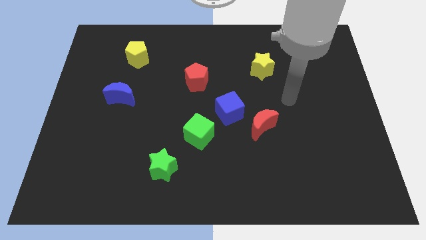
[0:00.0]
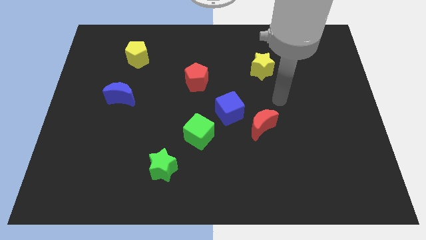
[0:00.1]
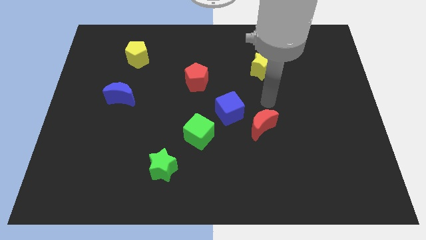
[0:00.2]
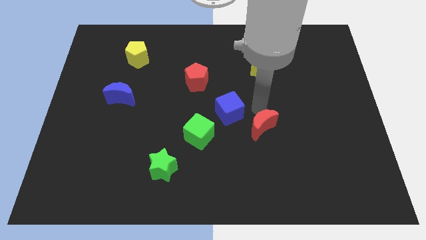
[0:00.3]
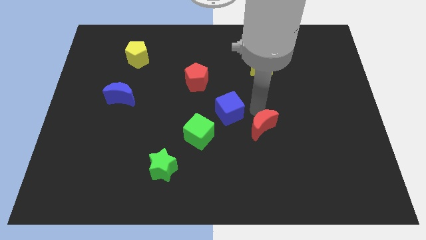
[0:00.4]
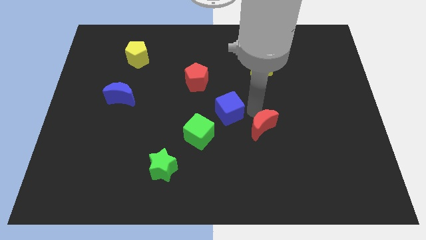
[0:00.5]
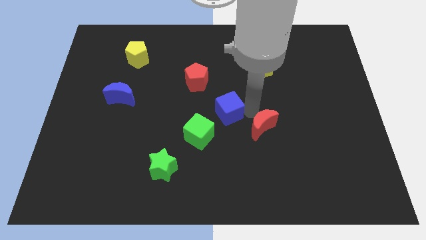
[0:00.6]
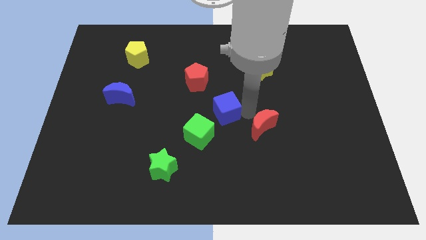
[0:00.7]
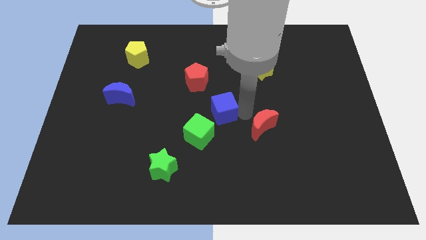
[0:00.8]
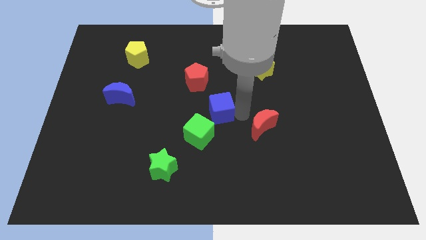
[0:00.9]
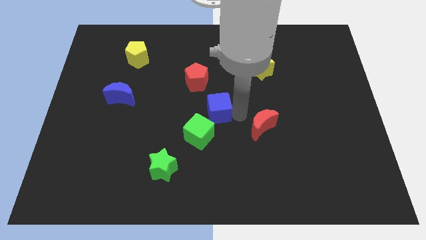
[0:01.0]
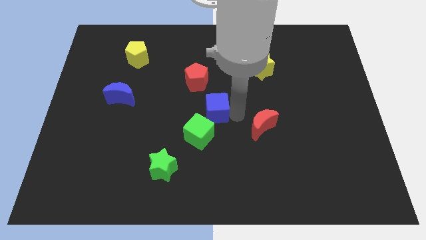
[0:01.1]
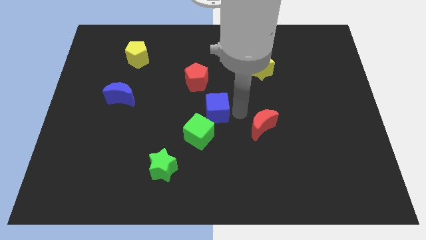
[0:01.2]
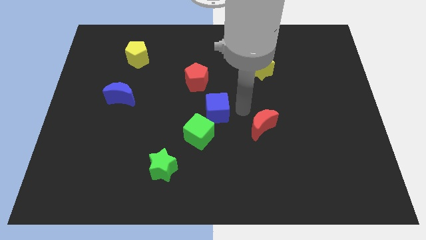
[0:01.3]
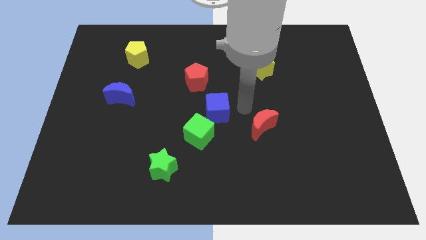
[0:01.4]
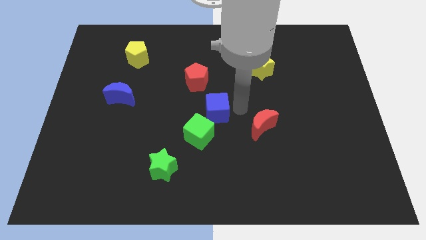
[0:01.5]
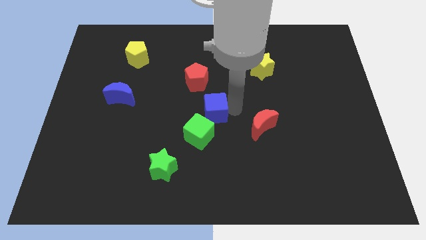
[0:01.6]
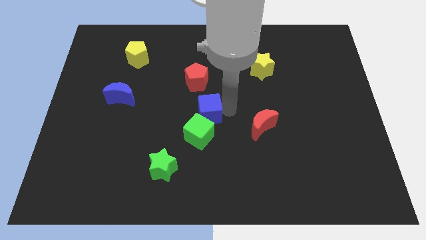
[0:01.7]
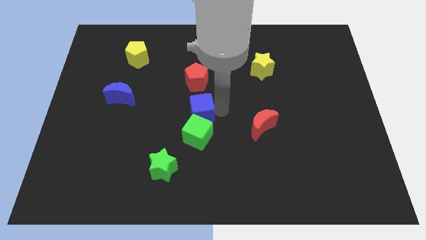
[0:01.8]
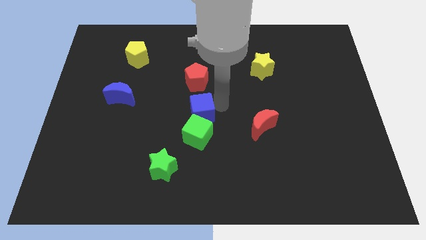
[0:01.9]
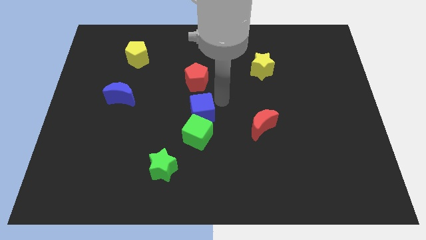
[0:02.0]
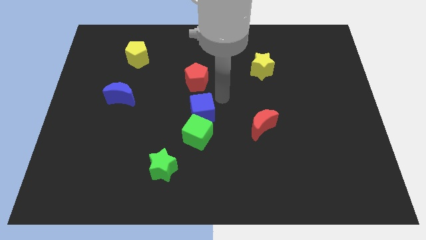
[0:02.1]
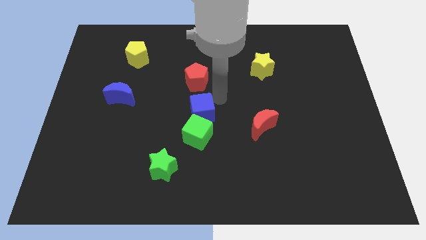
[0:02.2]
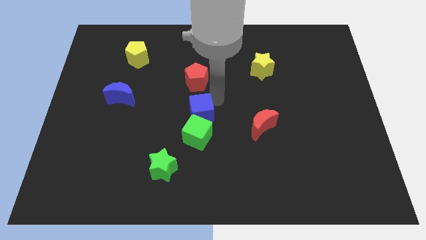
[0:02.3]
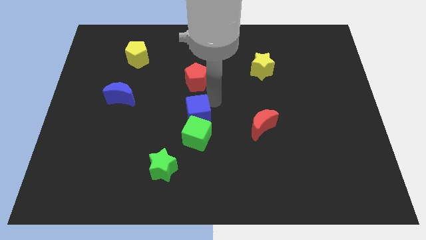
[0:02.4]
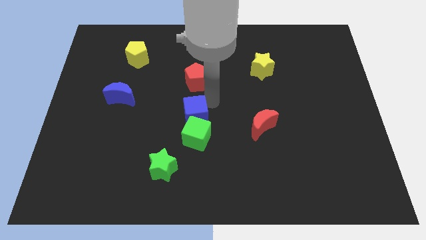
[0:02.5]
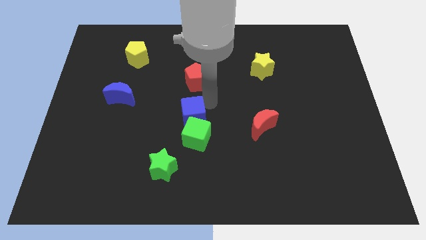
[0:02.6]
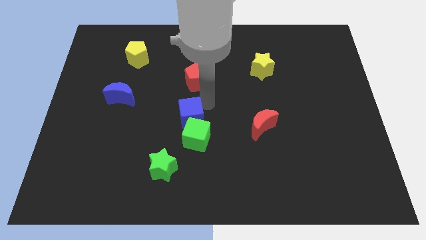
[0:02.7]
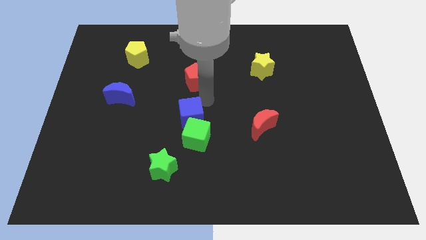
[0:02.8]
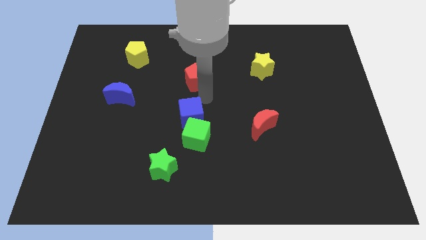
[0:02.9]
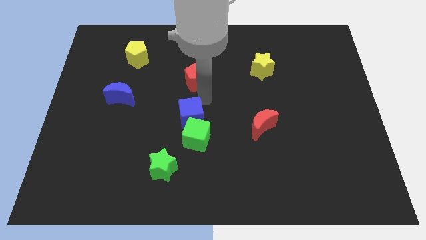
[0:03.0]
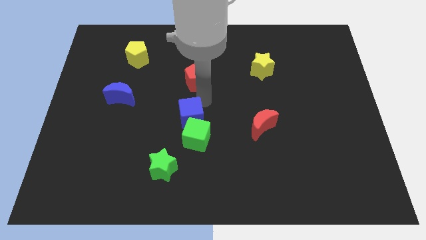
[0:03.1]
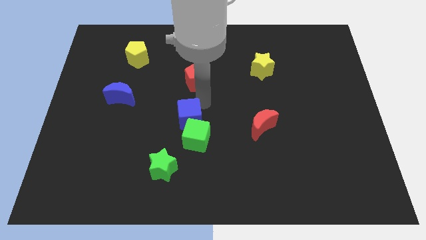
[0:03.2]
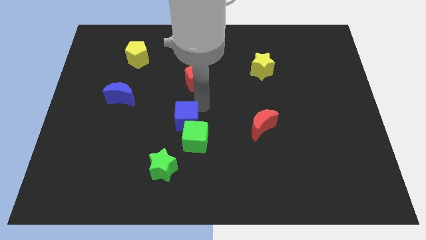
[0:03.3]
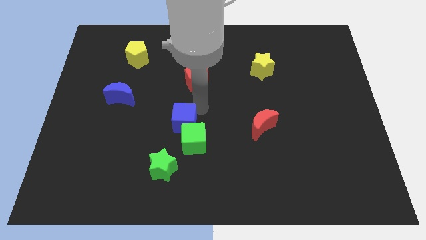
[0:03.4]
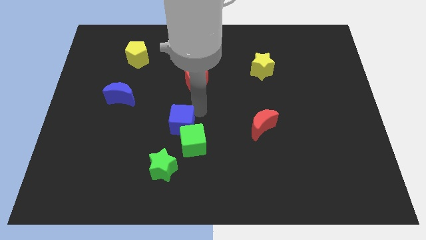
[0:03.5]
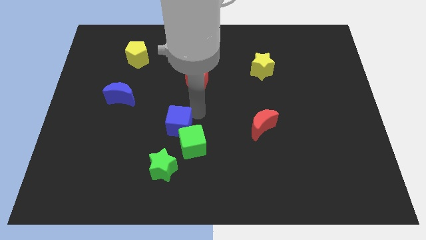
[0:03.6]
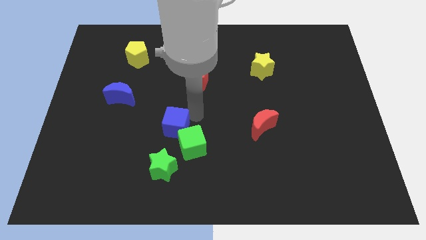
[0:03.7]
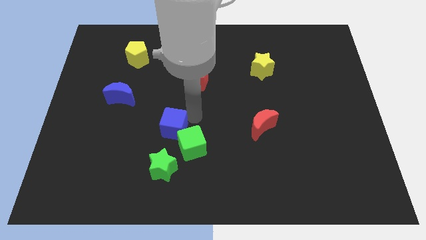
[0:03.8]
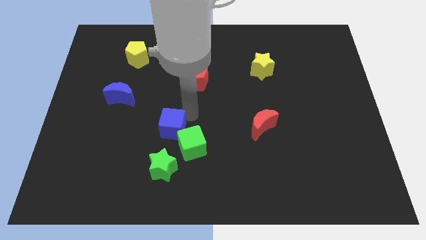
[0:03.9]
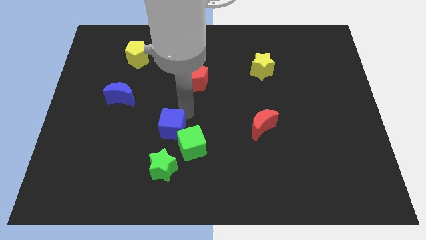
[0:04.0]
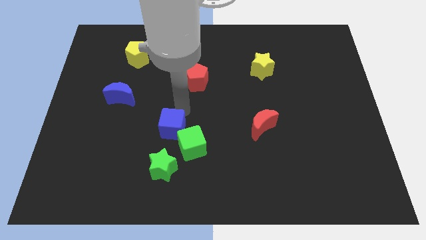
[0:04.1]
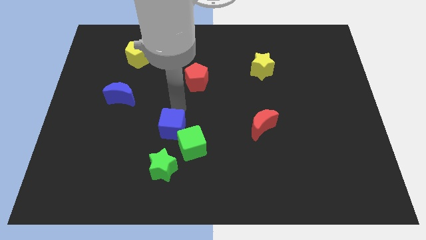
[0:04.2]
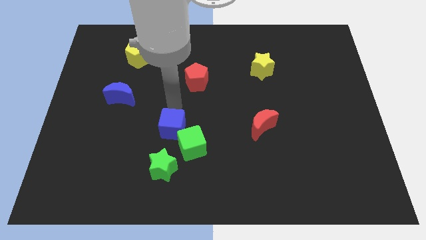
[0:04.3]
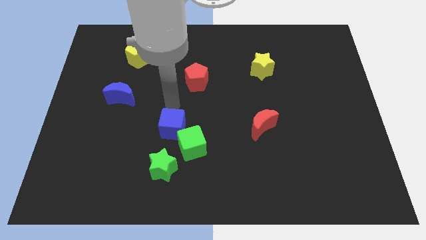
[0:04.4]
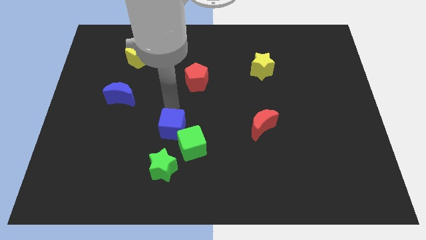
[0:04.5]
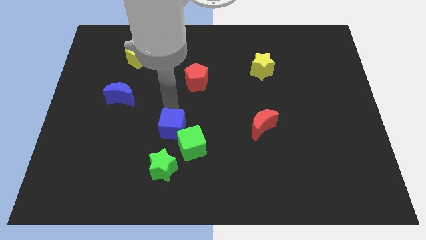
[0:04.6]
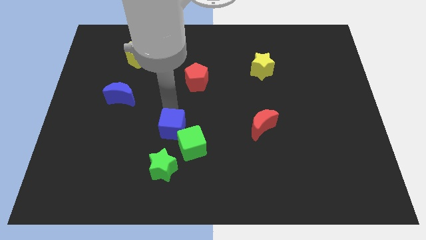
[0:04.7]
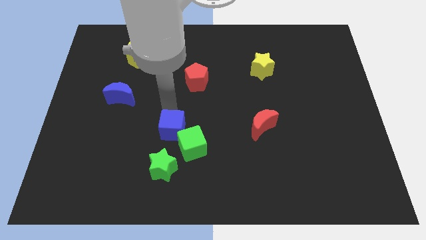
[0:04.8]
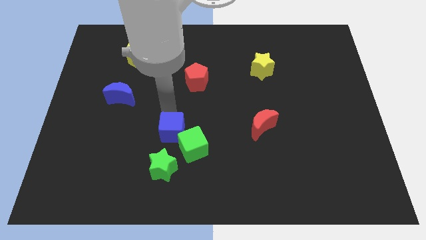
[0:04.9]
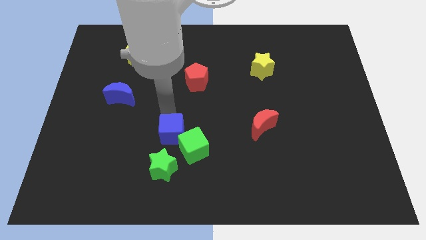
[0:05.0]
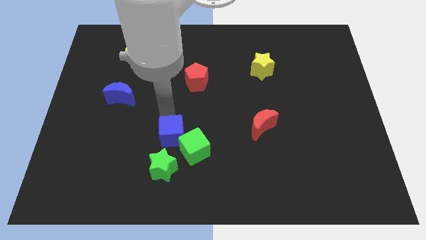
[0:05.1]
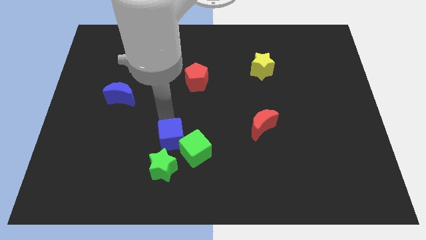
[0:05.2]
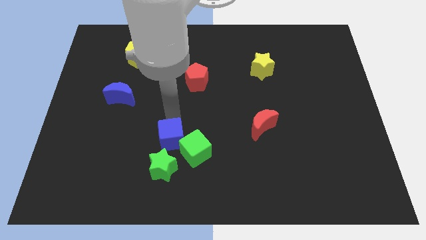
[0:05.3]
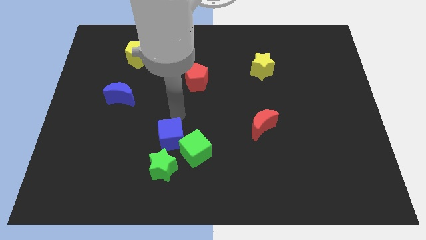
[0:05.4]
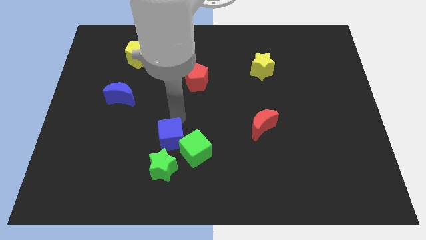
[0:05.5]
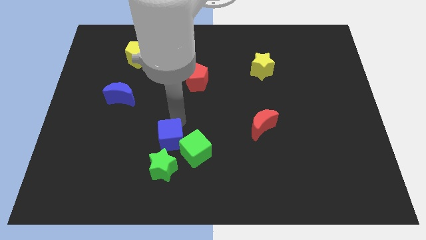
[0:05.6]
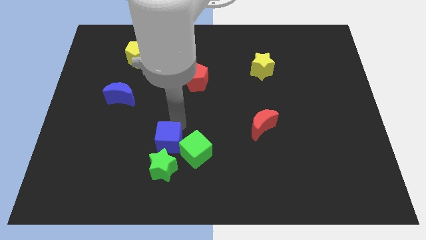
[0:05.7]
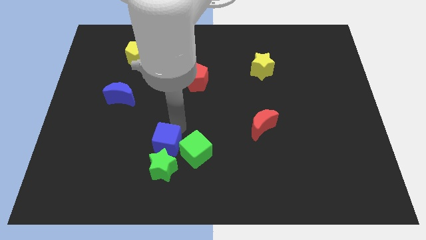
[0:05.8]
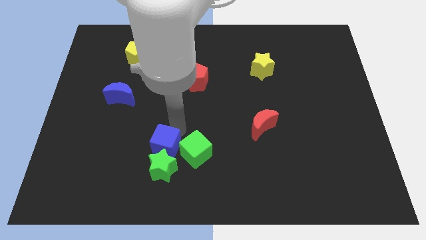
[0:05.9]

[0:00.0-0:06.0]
move the blue cube close to the green star

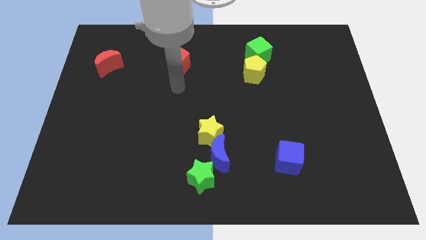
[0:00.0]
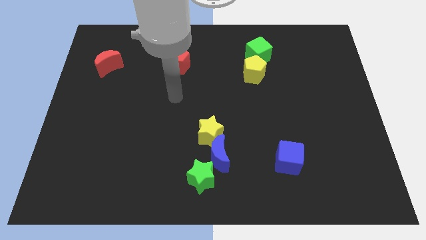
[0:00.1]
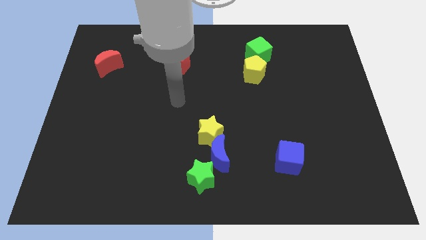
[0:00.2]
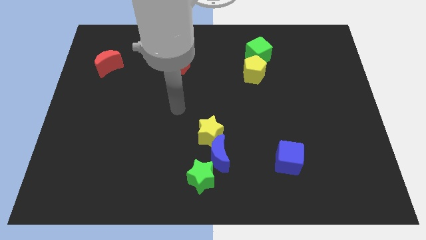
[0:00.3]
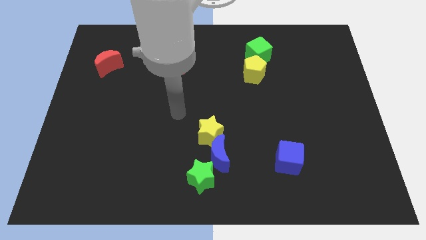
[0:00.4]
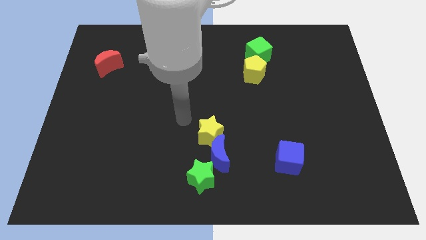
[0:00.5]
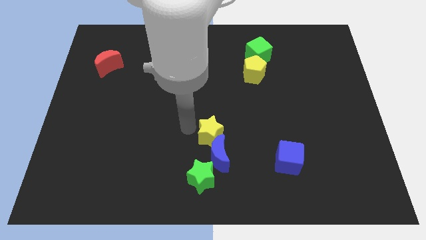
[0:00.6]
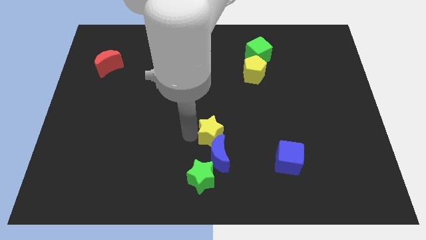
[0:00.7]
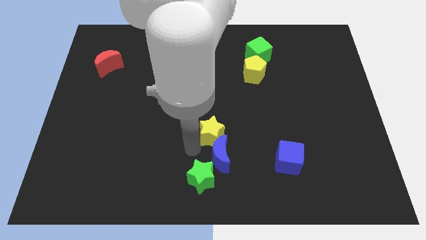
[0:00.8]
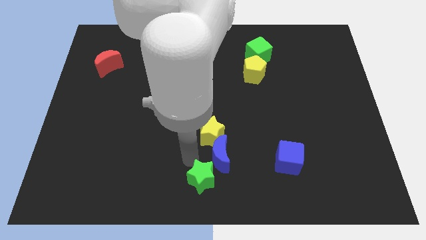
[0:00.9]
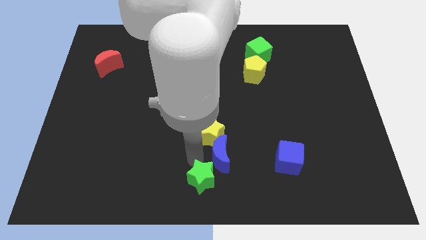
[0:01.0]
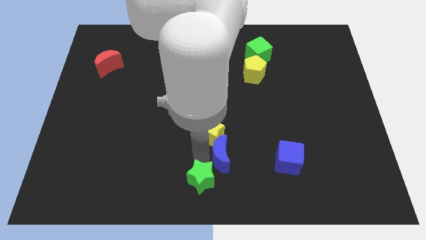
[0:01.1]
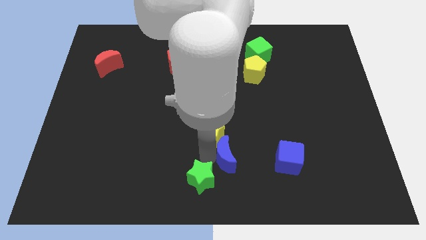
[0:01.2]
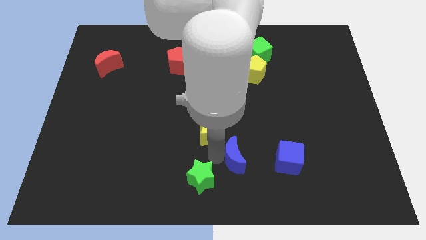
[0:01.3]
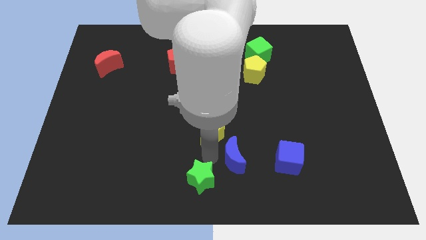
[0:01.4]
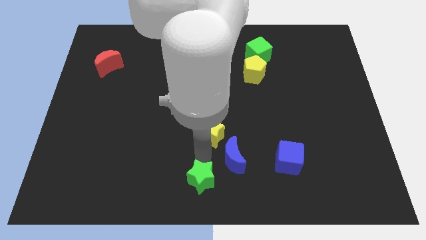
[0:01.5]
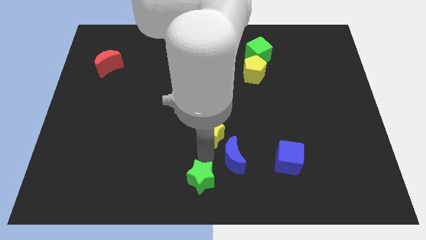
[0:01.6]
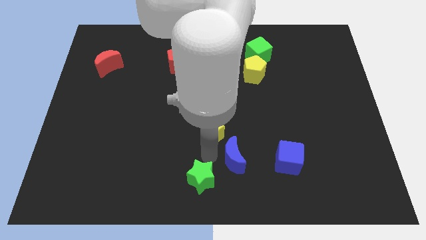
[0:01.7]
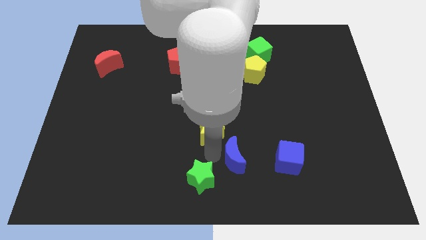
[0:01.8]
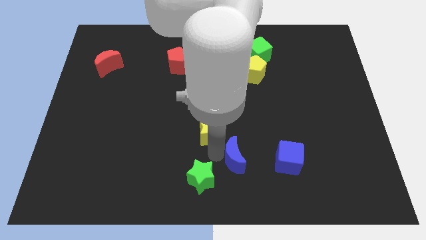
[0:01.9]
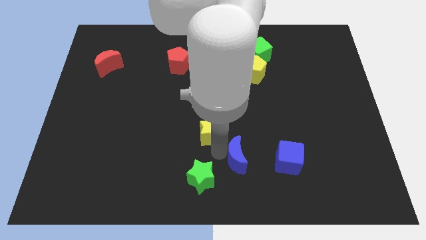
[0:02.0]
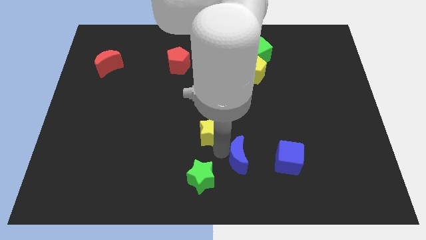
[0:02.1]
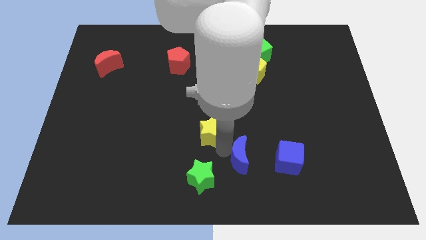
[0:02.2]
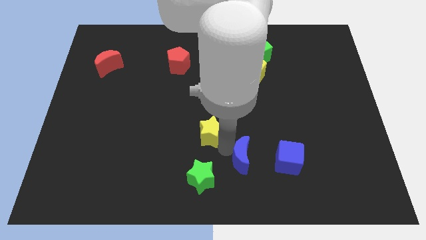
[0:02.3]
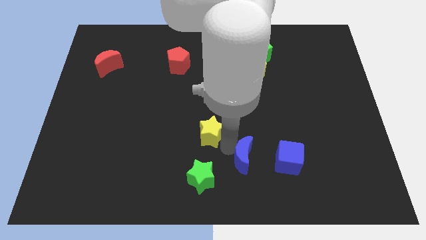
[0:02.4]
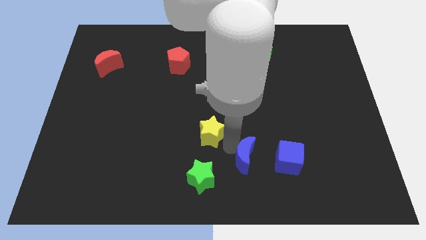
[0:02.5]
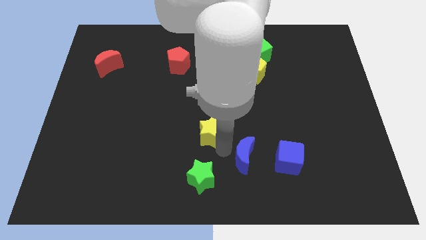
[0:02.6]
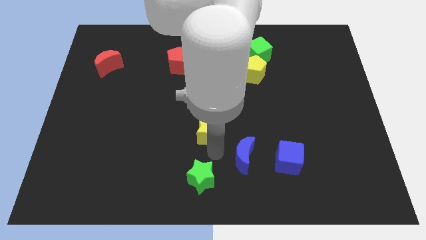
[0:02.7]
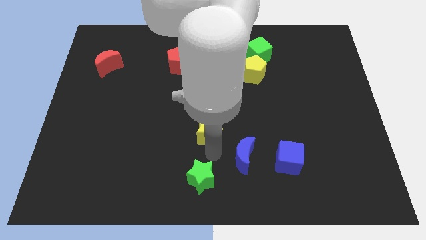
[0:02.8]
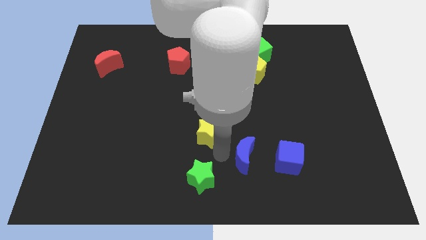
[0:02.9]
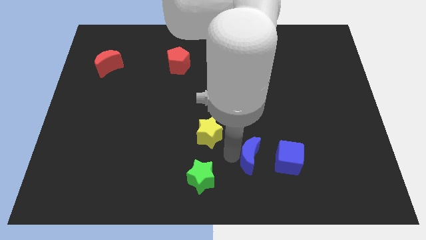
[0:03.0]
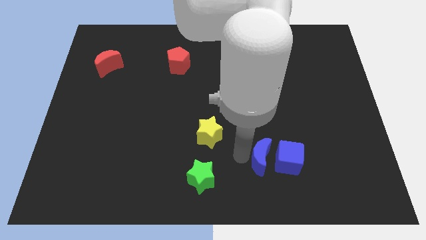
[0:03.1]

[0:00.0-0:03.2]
move the blue moon close to the blue cube
